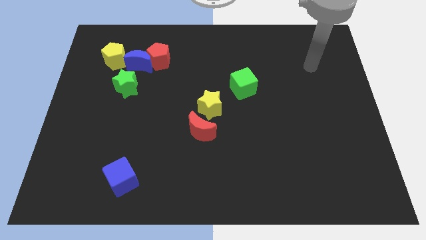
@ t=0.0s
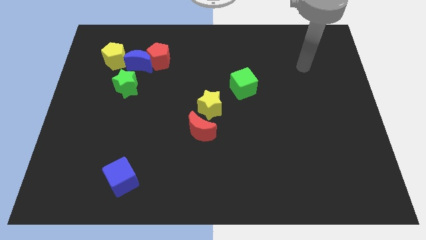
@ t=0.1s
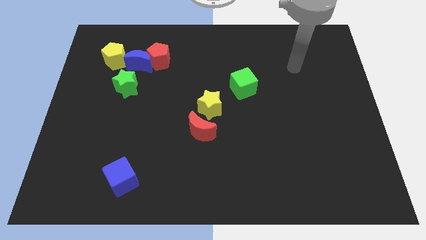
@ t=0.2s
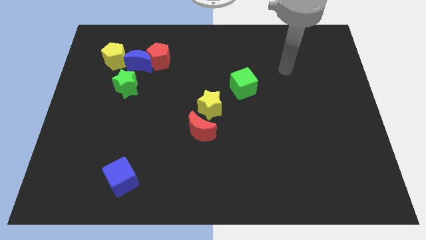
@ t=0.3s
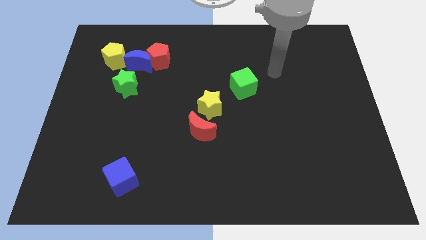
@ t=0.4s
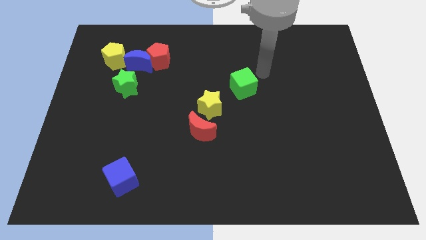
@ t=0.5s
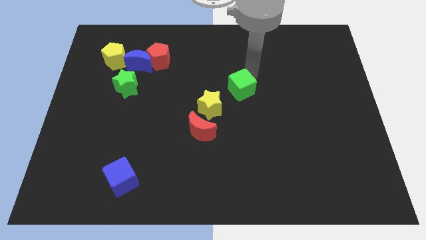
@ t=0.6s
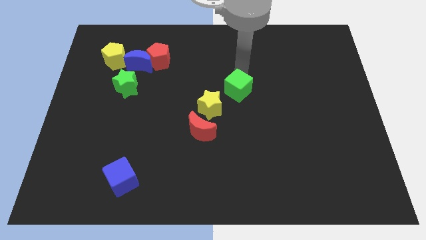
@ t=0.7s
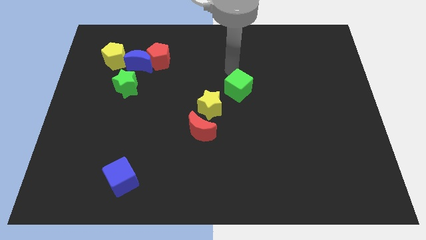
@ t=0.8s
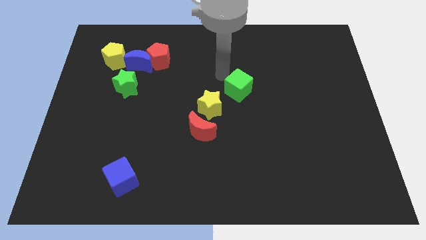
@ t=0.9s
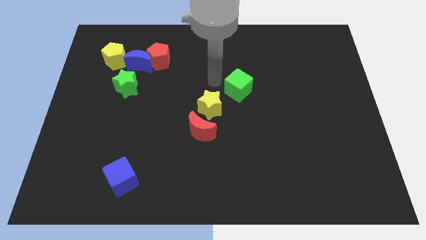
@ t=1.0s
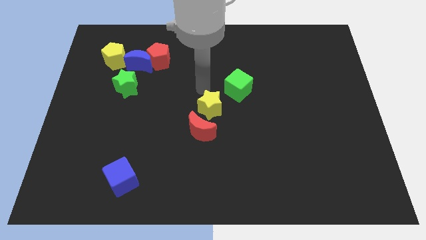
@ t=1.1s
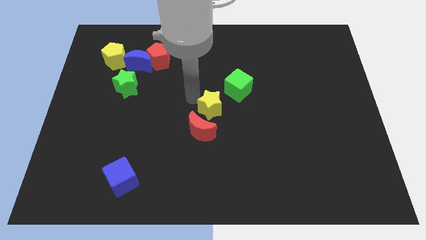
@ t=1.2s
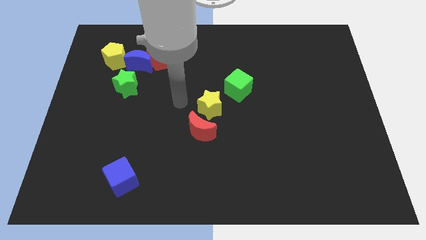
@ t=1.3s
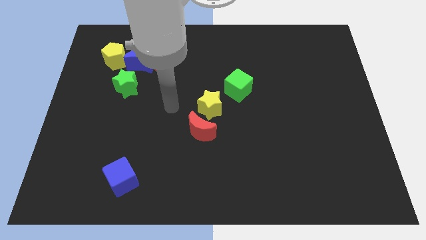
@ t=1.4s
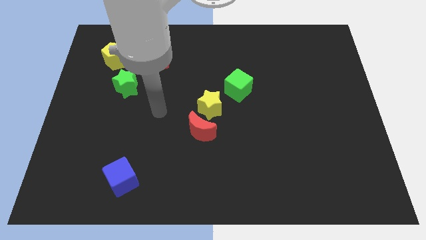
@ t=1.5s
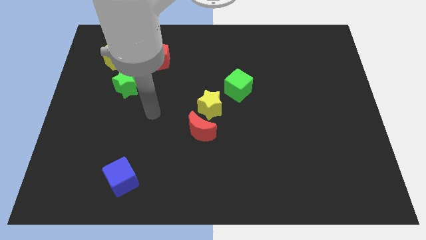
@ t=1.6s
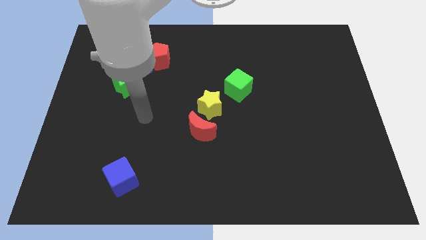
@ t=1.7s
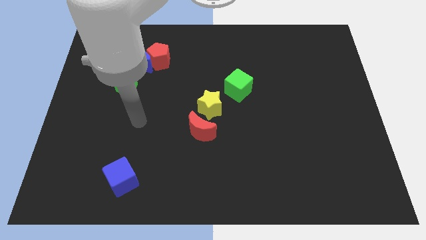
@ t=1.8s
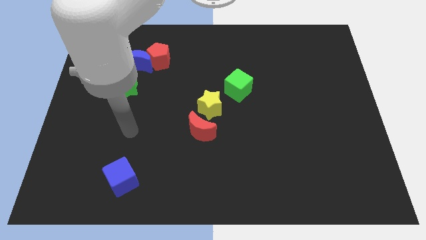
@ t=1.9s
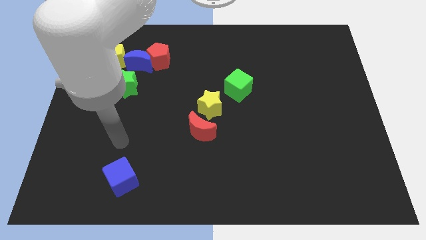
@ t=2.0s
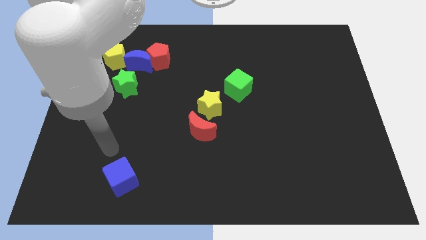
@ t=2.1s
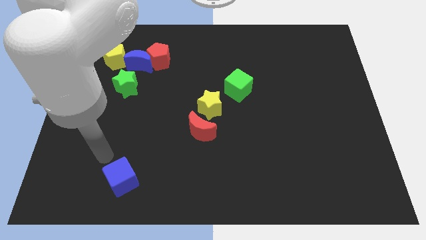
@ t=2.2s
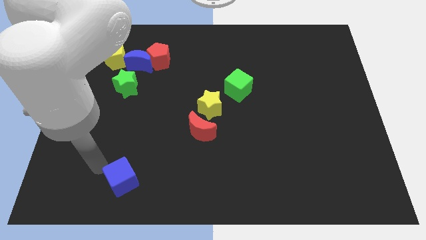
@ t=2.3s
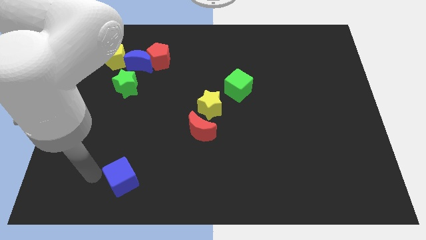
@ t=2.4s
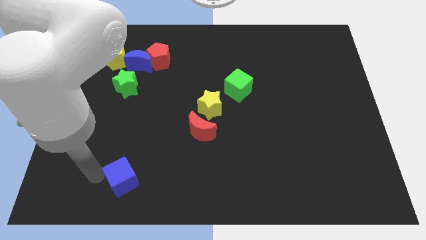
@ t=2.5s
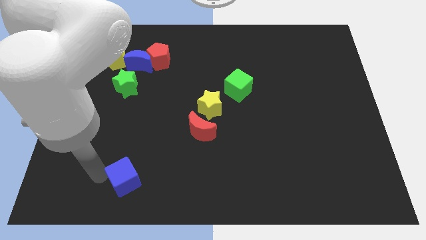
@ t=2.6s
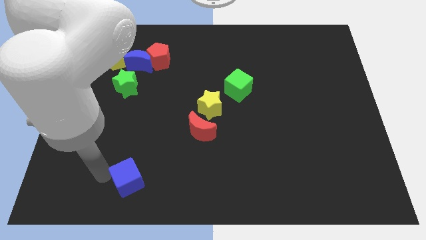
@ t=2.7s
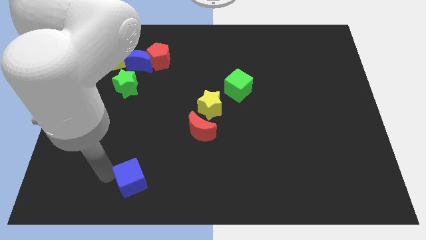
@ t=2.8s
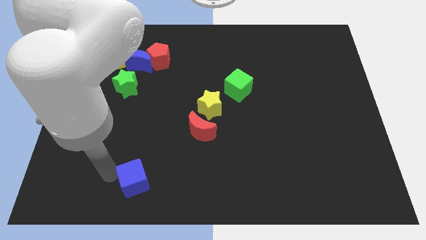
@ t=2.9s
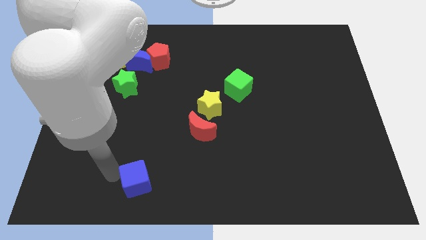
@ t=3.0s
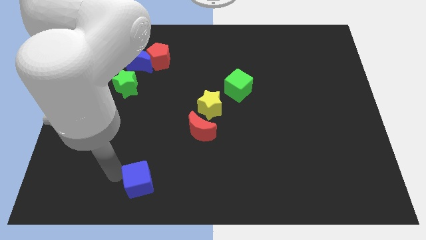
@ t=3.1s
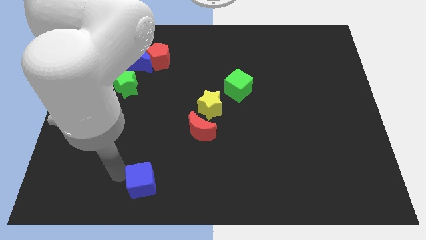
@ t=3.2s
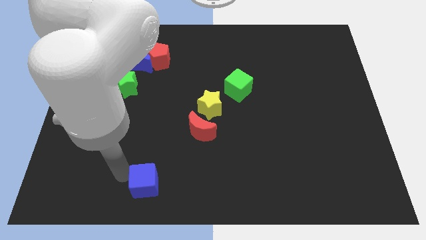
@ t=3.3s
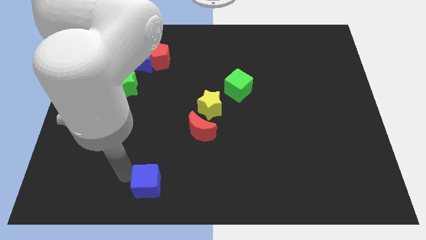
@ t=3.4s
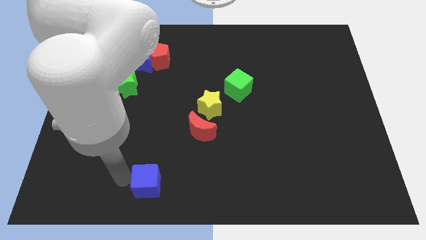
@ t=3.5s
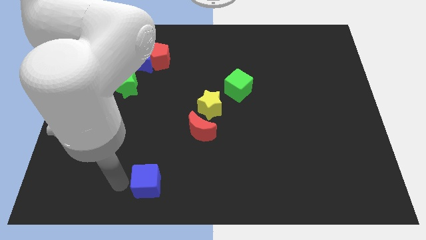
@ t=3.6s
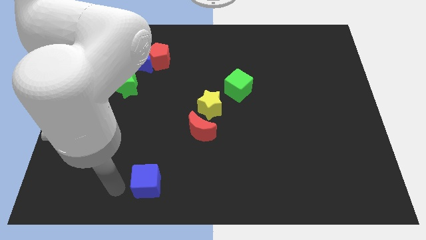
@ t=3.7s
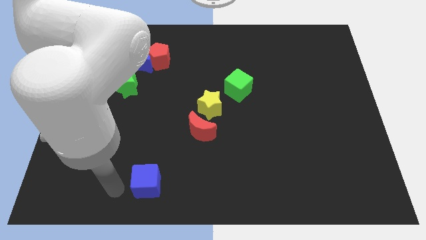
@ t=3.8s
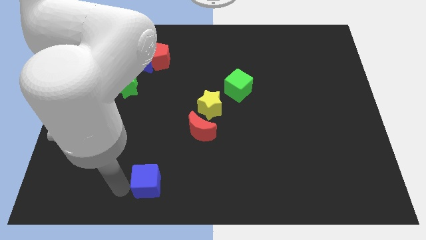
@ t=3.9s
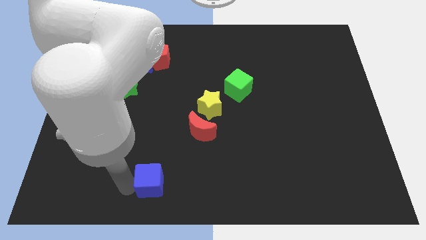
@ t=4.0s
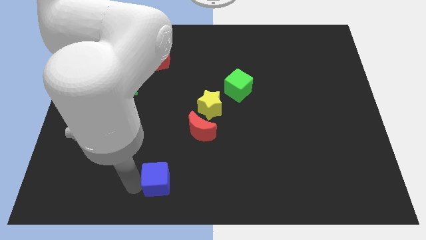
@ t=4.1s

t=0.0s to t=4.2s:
push the blue cube right a bit

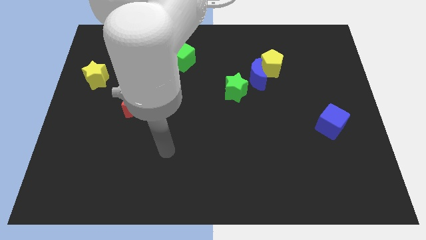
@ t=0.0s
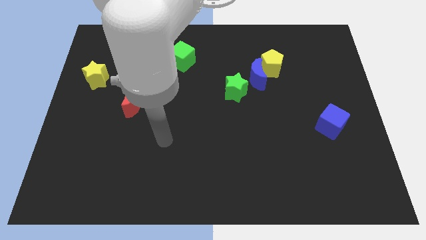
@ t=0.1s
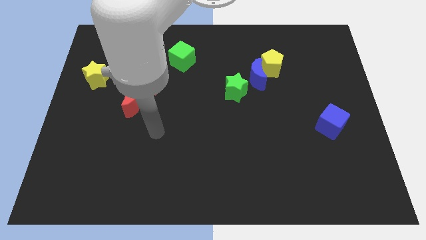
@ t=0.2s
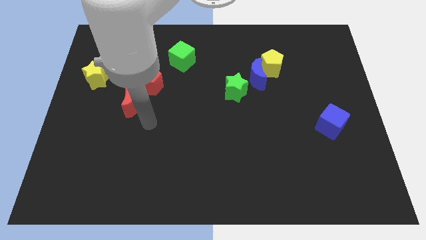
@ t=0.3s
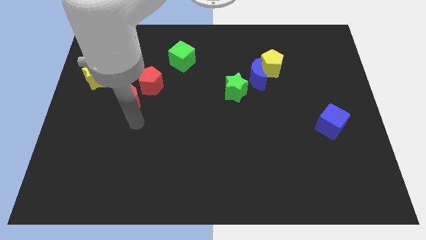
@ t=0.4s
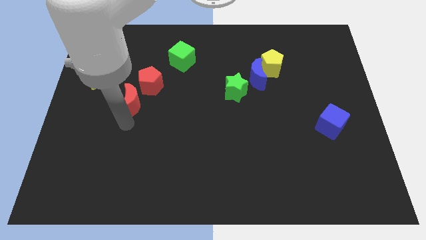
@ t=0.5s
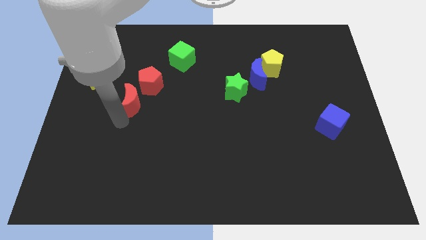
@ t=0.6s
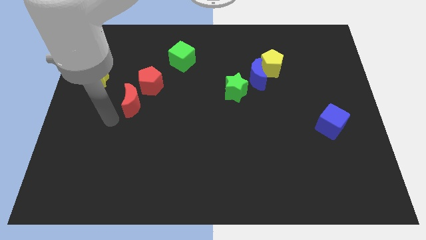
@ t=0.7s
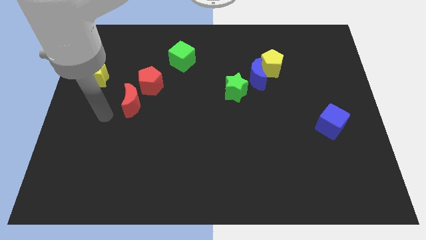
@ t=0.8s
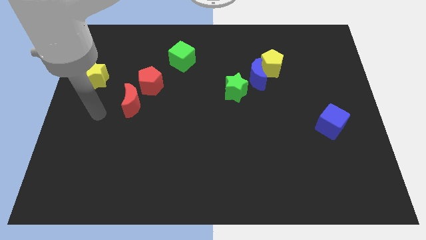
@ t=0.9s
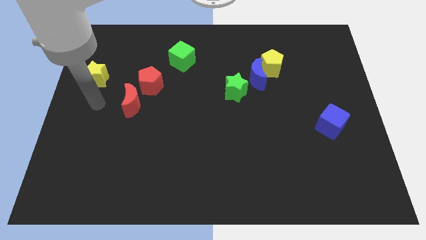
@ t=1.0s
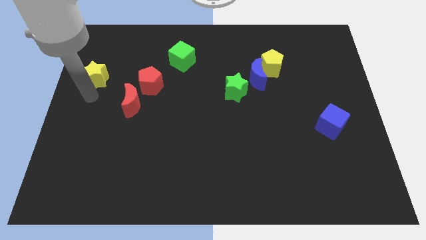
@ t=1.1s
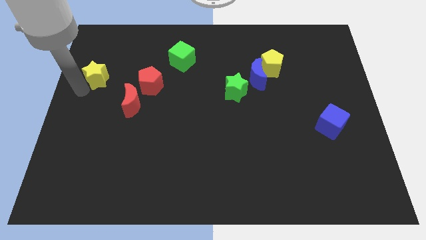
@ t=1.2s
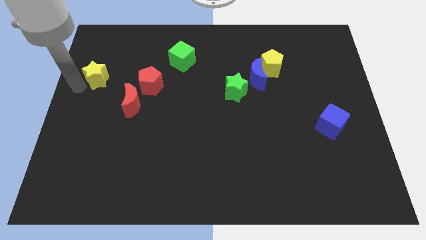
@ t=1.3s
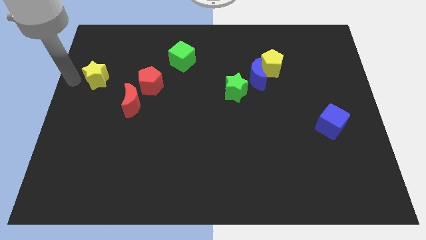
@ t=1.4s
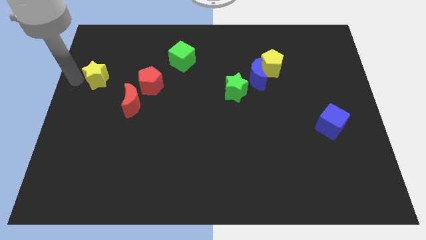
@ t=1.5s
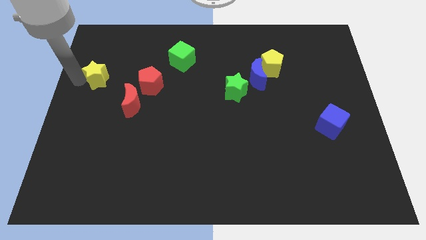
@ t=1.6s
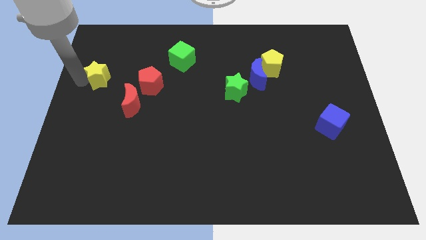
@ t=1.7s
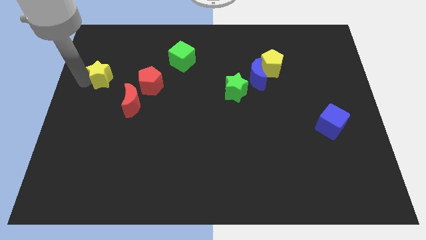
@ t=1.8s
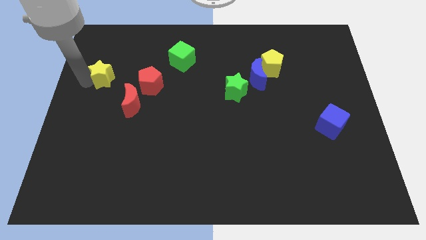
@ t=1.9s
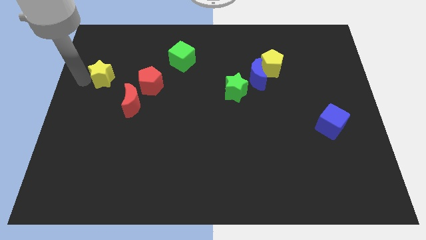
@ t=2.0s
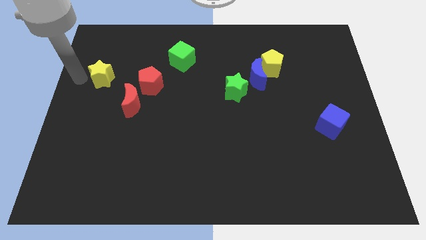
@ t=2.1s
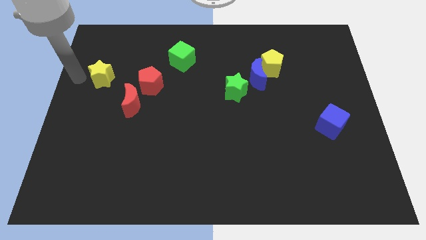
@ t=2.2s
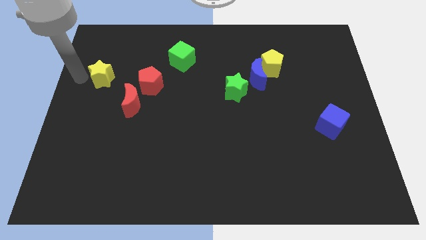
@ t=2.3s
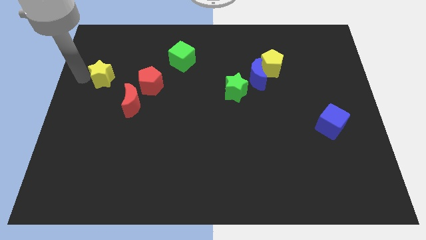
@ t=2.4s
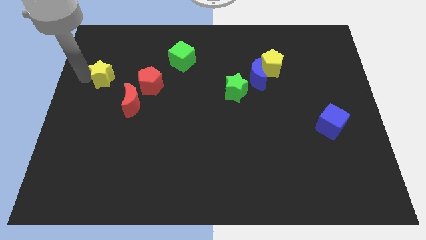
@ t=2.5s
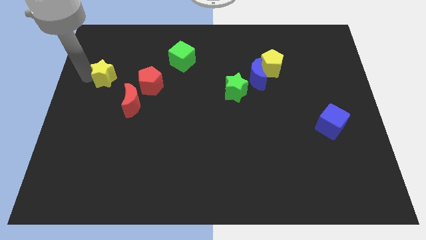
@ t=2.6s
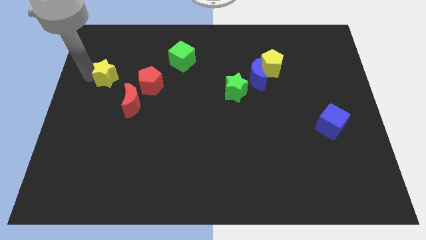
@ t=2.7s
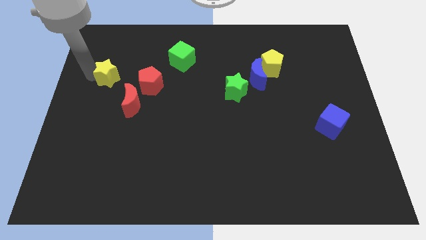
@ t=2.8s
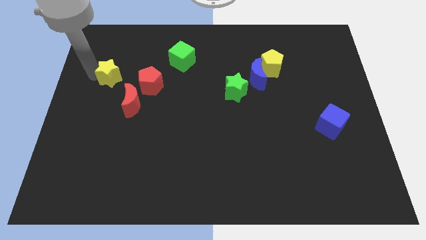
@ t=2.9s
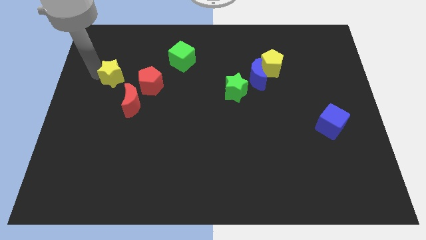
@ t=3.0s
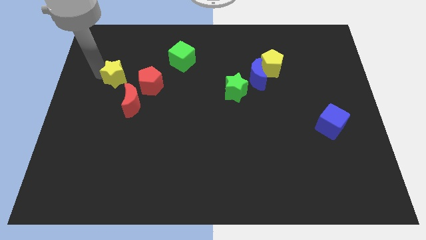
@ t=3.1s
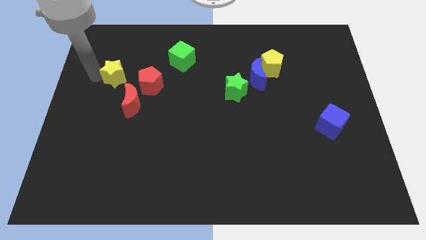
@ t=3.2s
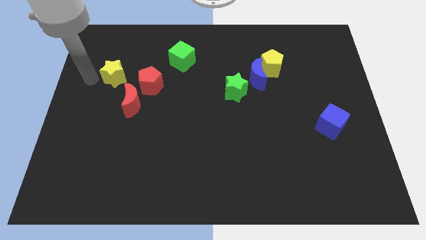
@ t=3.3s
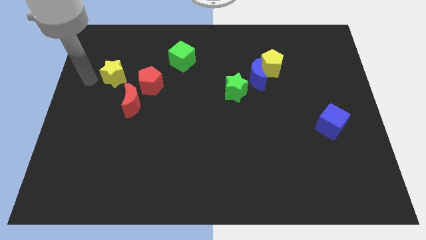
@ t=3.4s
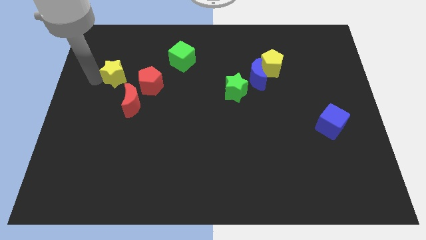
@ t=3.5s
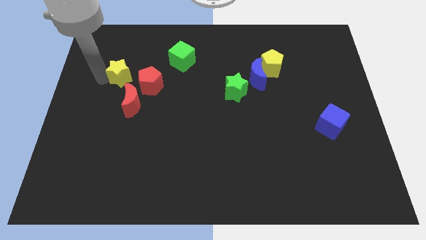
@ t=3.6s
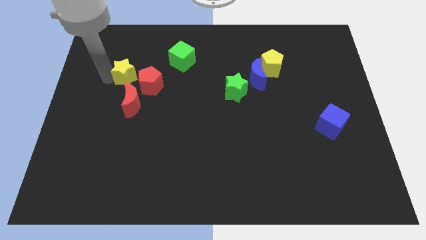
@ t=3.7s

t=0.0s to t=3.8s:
slightly slide the yellow star right

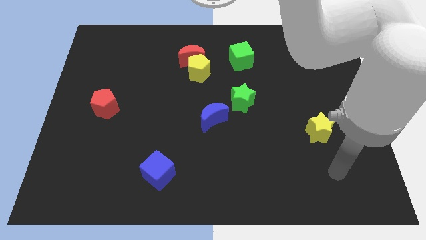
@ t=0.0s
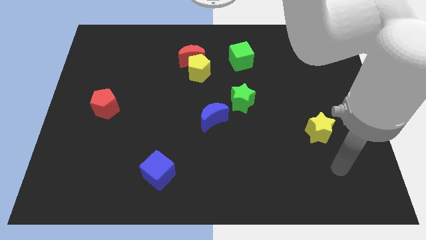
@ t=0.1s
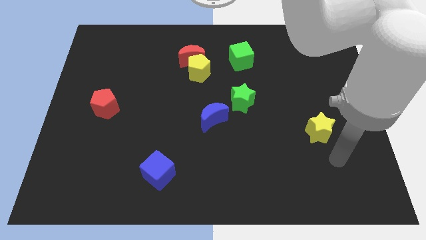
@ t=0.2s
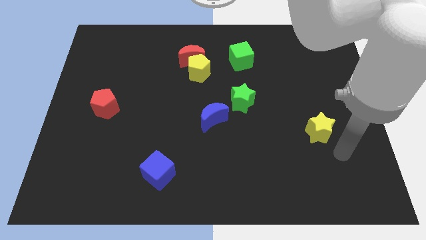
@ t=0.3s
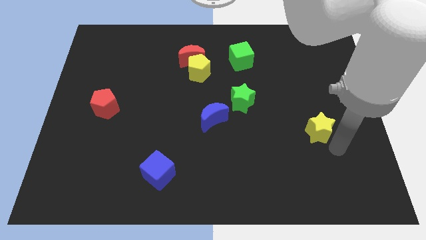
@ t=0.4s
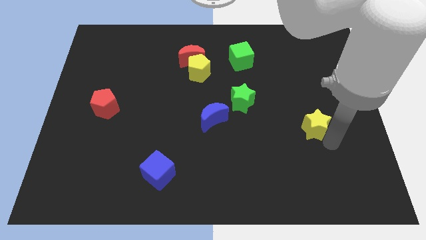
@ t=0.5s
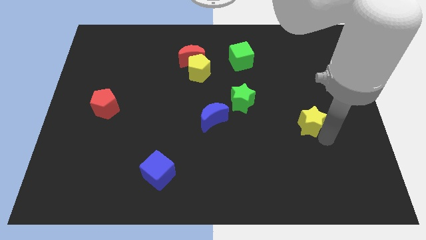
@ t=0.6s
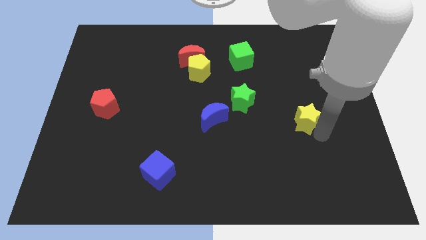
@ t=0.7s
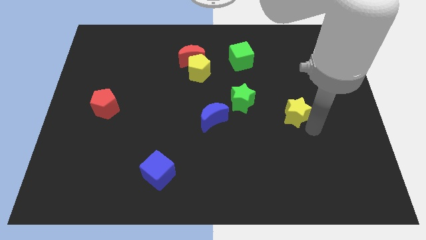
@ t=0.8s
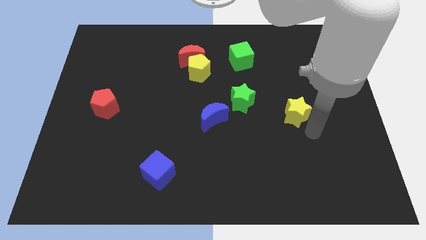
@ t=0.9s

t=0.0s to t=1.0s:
slightly push the yellow star diagonally up and left
